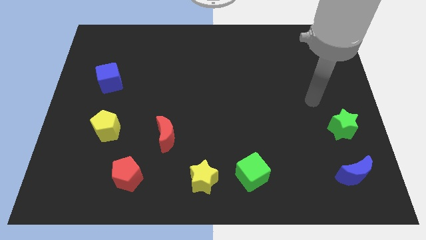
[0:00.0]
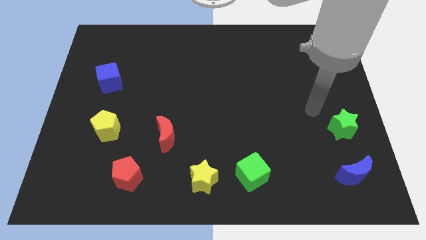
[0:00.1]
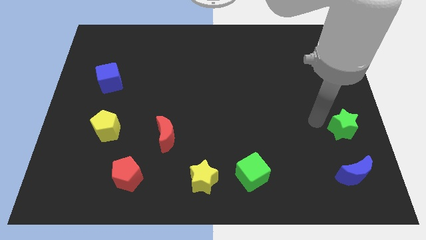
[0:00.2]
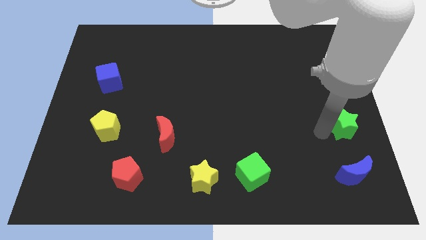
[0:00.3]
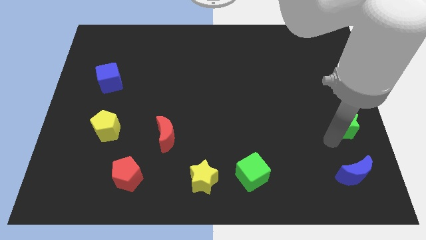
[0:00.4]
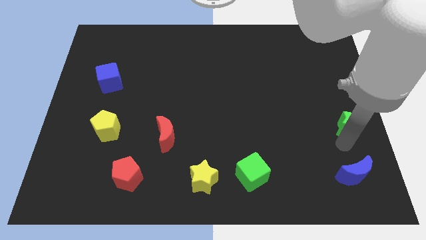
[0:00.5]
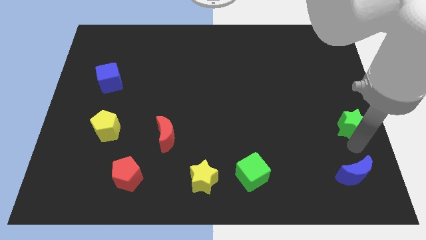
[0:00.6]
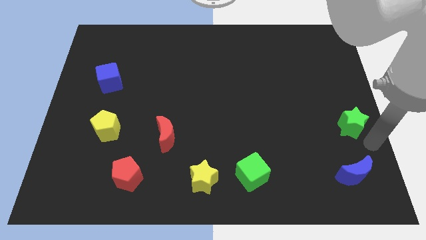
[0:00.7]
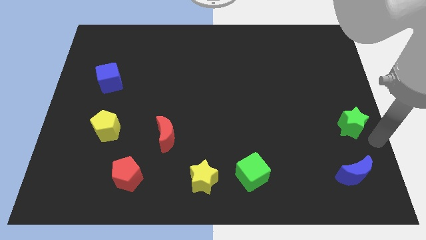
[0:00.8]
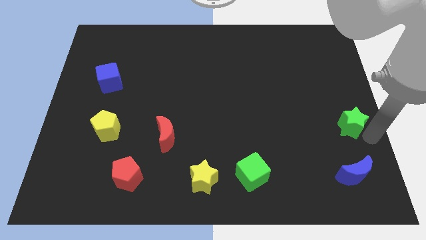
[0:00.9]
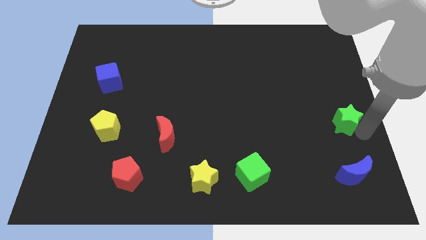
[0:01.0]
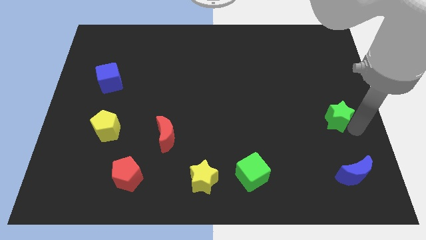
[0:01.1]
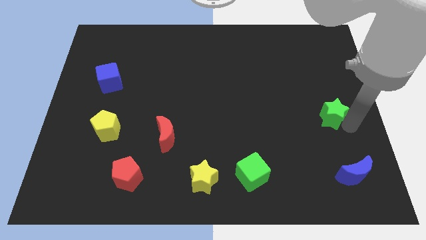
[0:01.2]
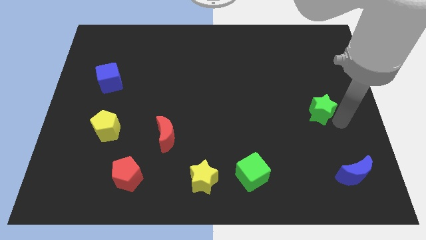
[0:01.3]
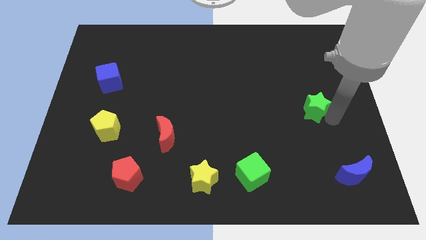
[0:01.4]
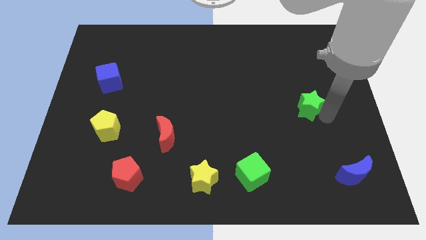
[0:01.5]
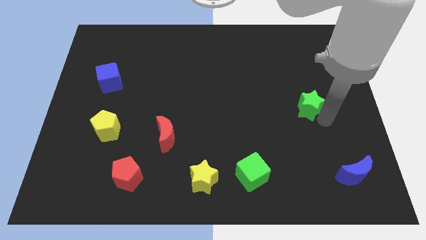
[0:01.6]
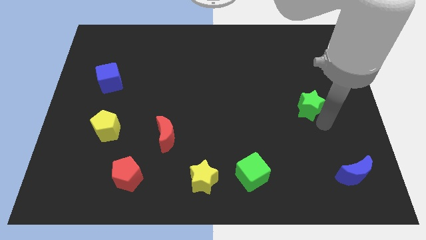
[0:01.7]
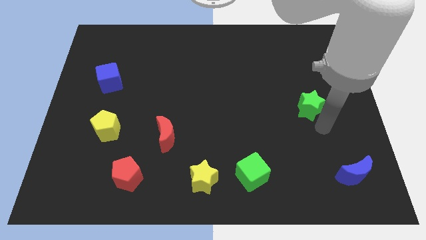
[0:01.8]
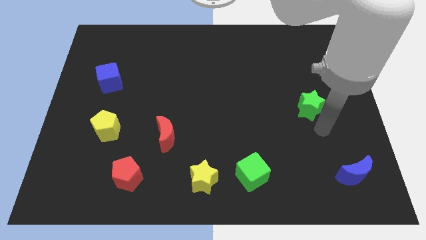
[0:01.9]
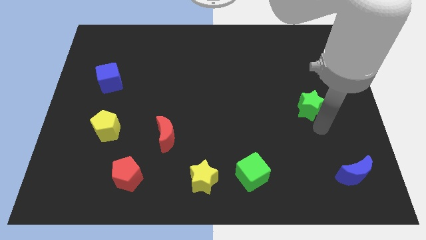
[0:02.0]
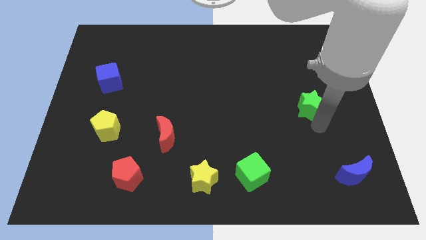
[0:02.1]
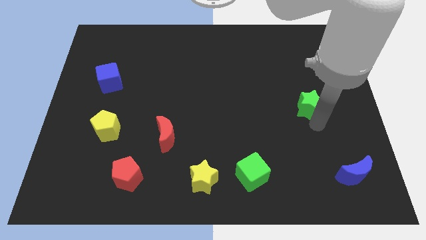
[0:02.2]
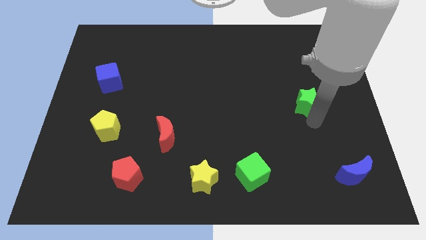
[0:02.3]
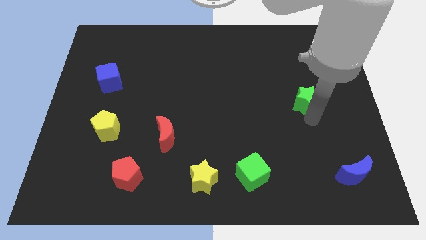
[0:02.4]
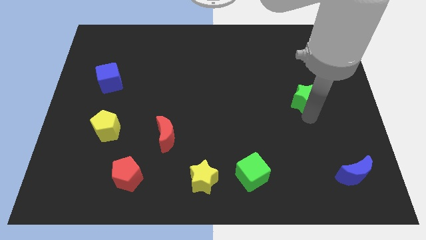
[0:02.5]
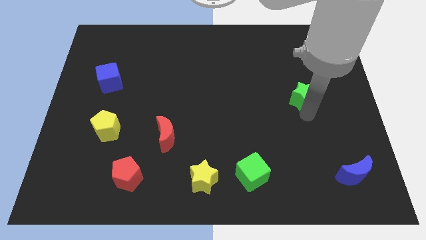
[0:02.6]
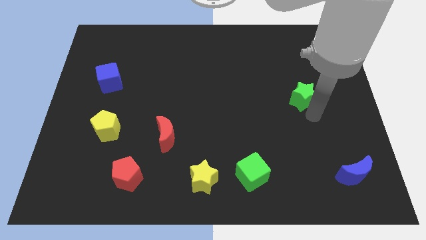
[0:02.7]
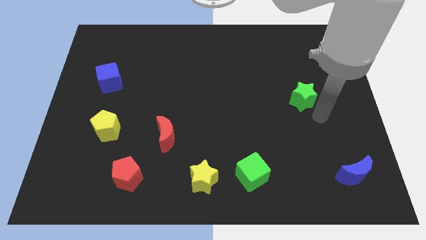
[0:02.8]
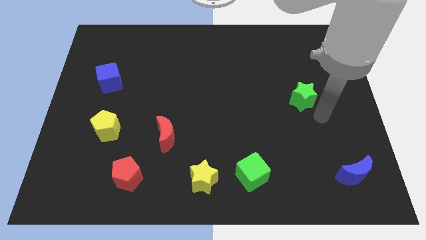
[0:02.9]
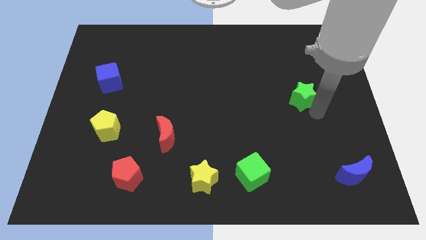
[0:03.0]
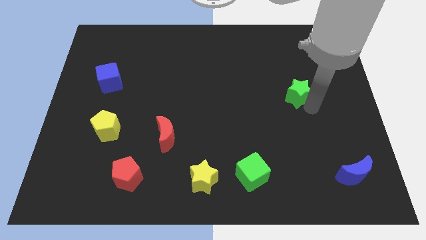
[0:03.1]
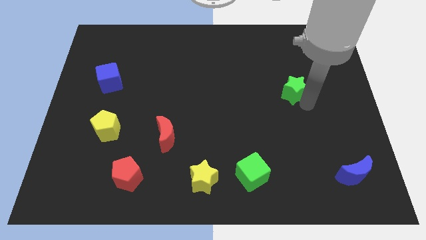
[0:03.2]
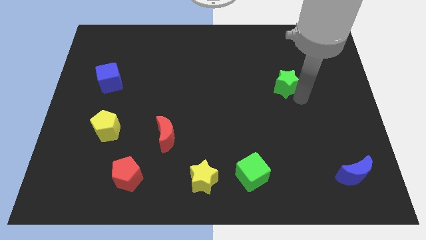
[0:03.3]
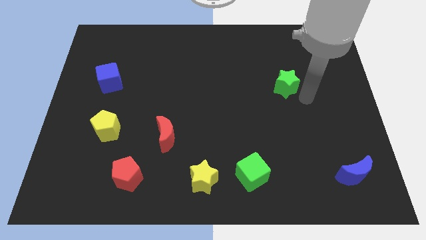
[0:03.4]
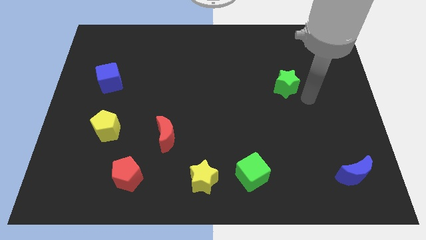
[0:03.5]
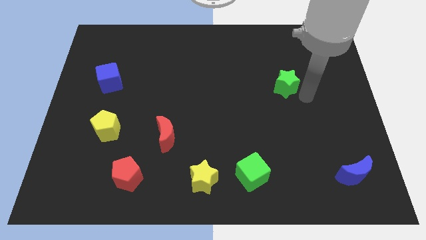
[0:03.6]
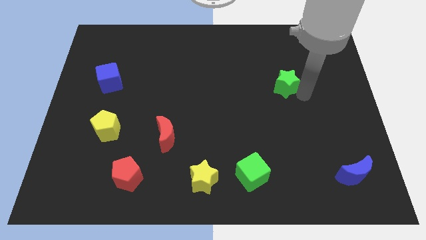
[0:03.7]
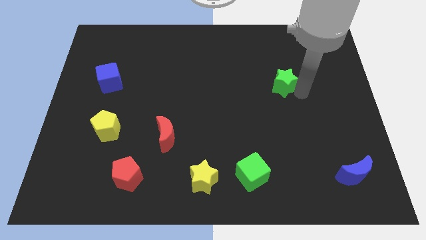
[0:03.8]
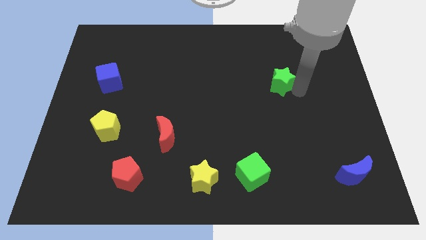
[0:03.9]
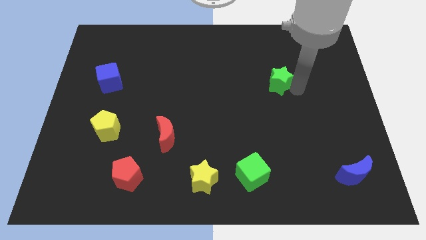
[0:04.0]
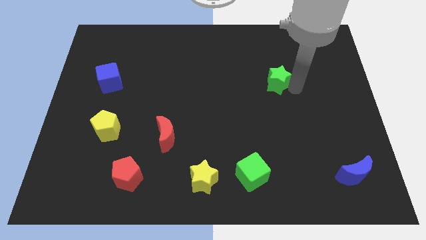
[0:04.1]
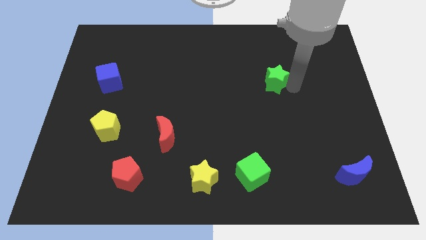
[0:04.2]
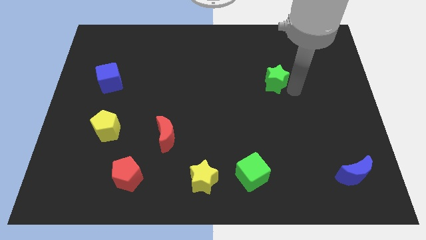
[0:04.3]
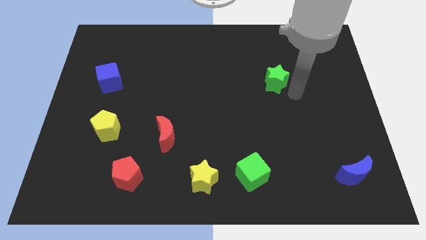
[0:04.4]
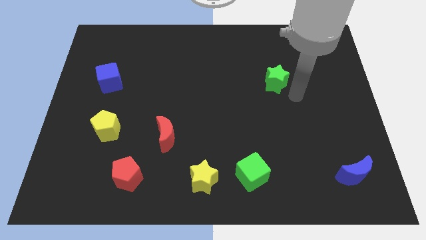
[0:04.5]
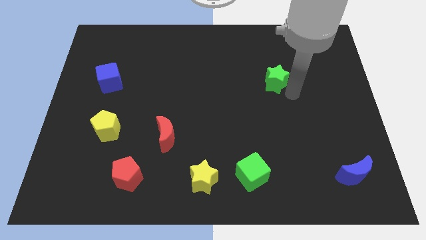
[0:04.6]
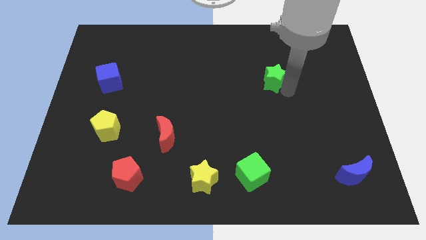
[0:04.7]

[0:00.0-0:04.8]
push the green star up and to the left diagonally

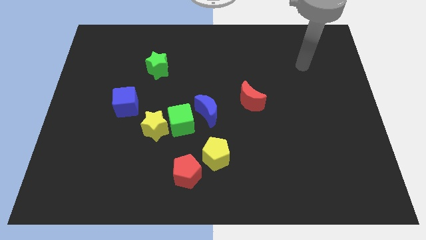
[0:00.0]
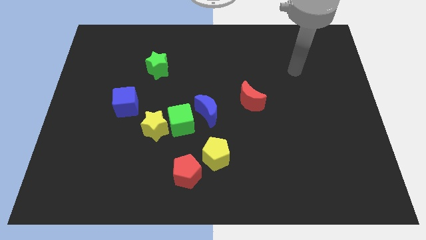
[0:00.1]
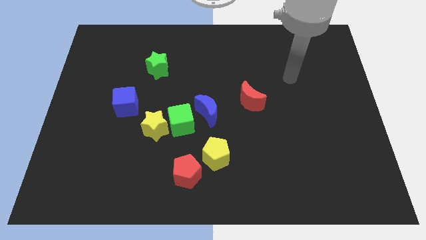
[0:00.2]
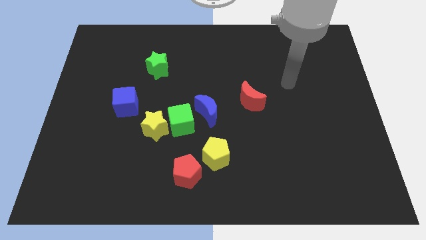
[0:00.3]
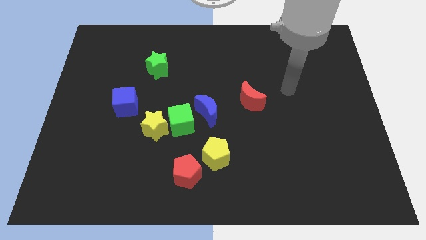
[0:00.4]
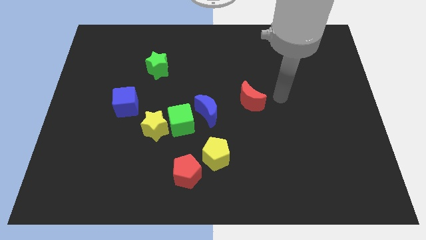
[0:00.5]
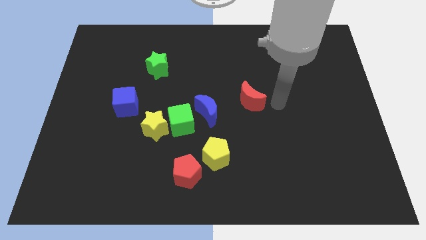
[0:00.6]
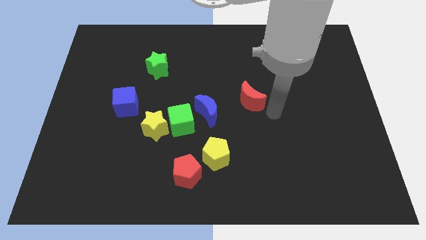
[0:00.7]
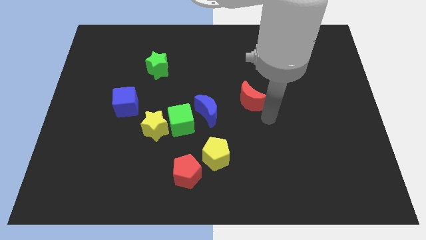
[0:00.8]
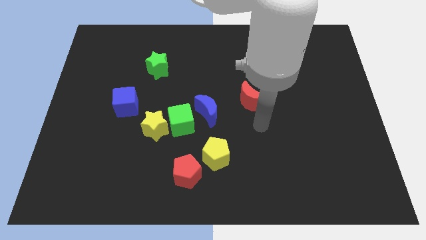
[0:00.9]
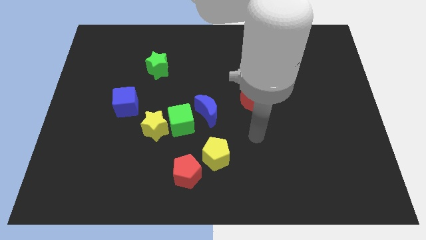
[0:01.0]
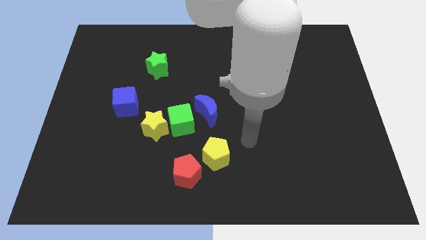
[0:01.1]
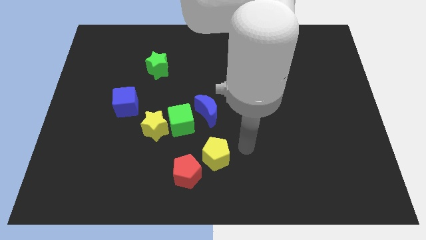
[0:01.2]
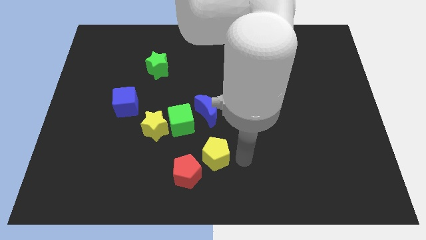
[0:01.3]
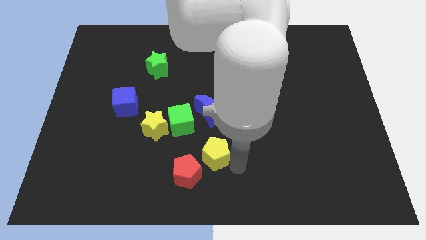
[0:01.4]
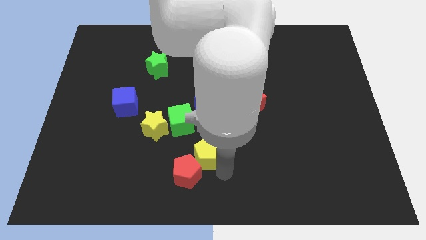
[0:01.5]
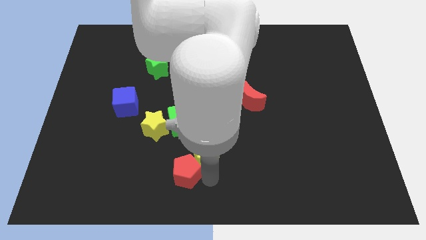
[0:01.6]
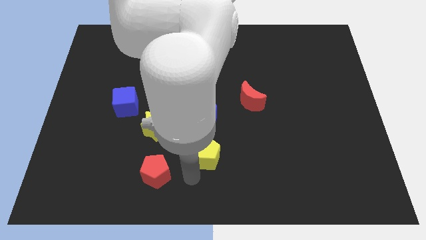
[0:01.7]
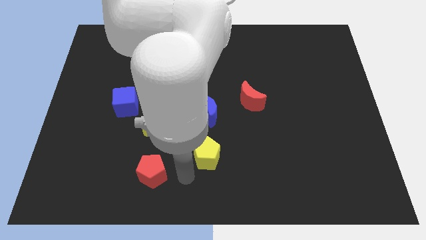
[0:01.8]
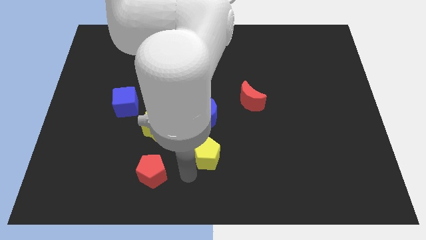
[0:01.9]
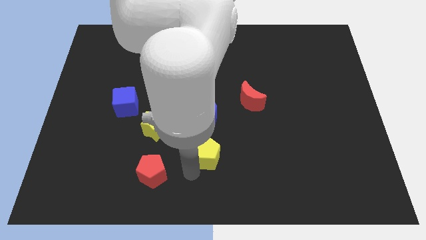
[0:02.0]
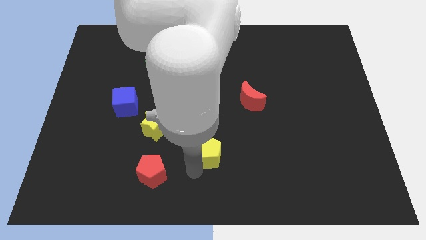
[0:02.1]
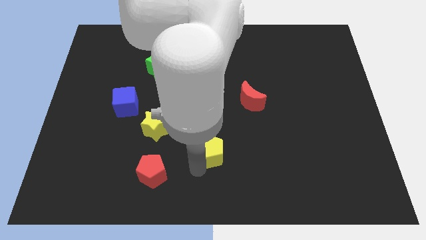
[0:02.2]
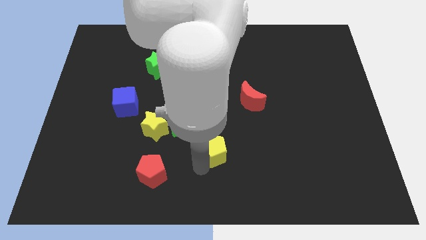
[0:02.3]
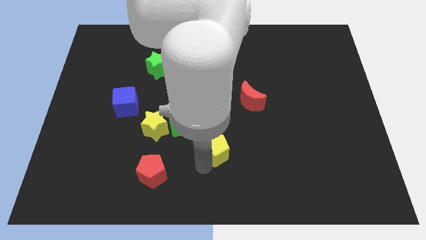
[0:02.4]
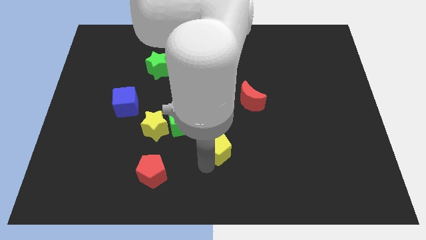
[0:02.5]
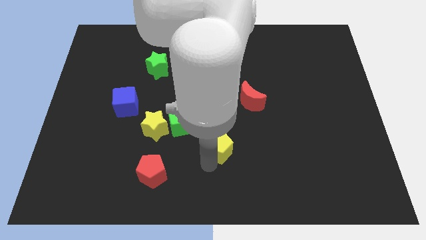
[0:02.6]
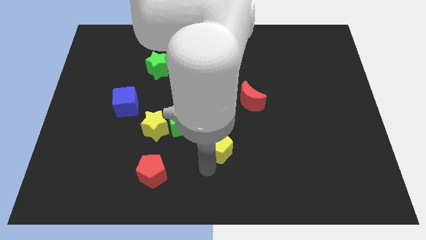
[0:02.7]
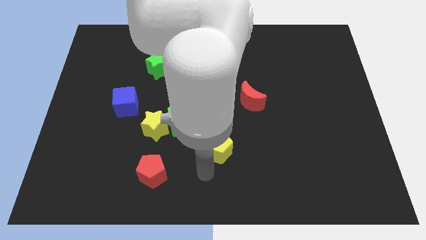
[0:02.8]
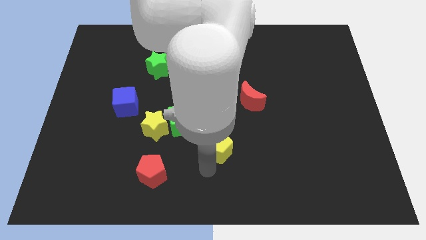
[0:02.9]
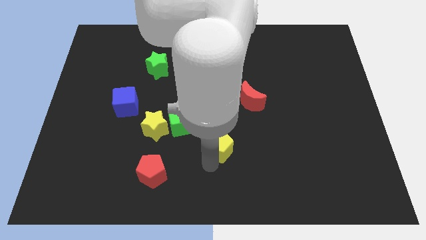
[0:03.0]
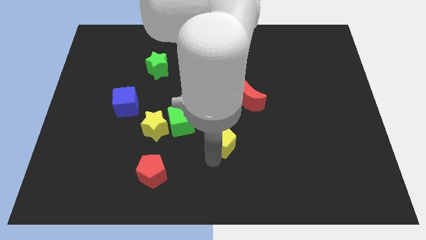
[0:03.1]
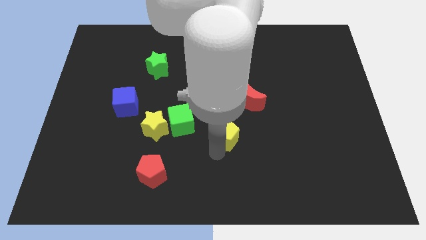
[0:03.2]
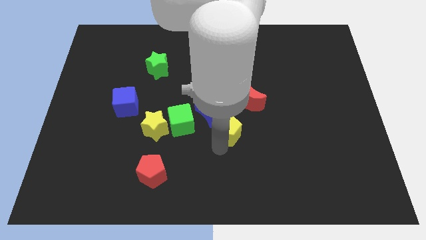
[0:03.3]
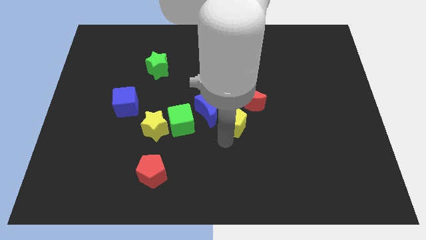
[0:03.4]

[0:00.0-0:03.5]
slightly slide the yellow pentagon upwards
